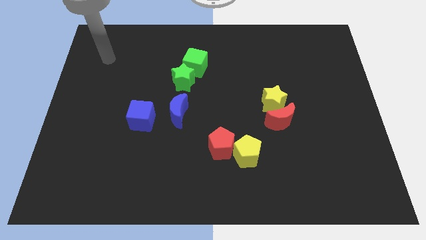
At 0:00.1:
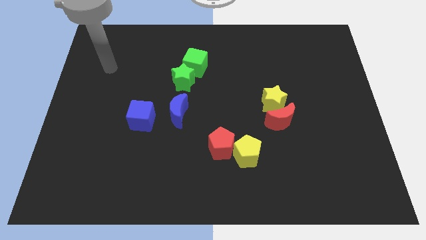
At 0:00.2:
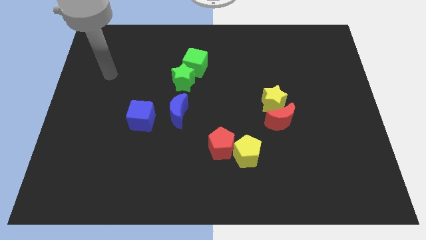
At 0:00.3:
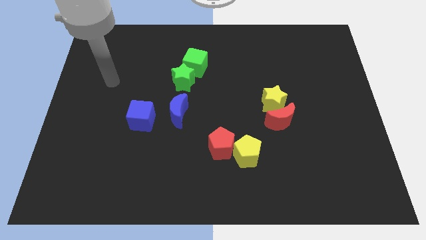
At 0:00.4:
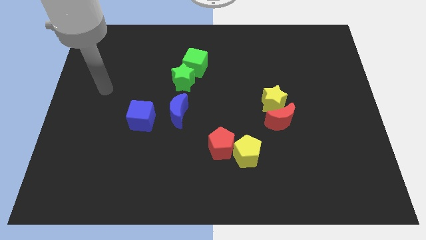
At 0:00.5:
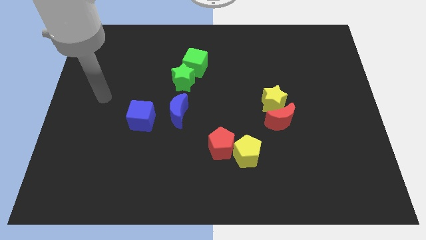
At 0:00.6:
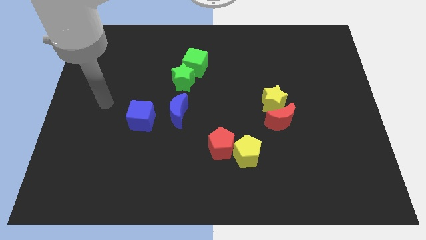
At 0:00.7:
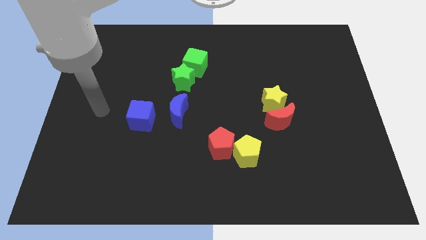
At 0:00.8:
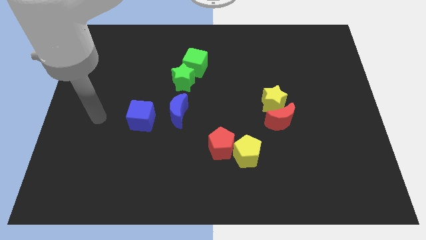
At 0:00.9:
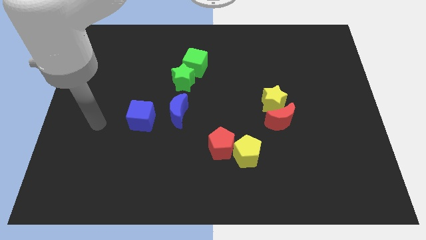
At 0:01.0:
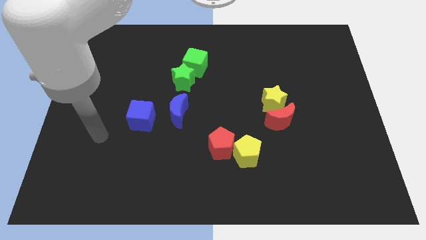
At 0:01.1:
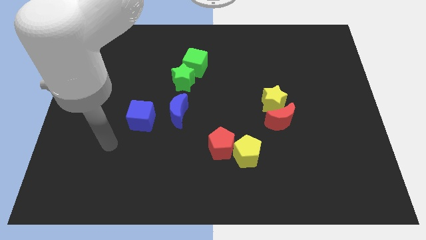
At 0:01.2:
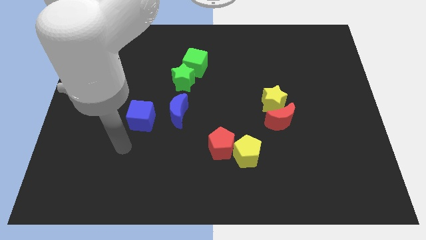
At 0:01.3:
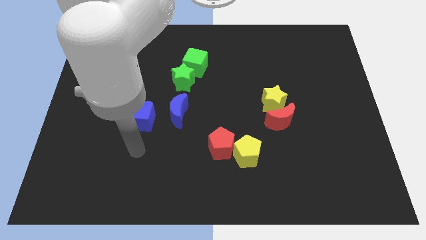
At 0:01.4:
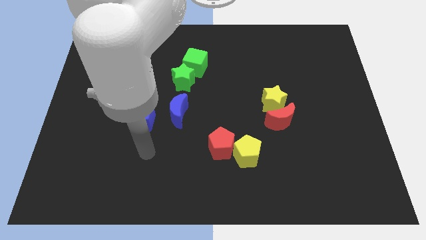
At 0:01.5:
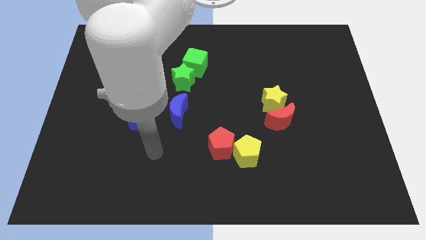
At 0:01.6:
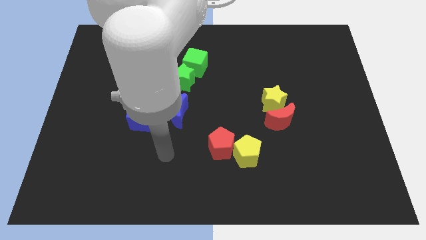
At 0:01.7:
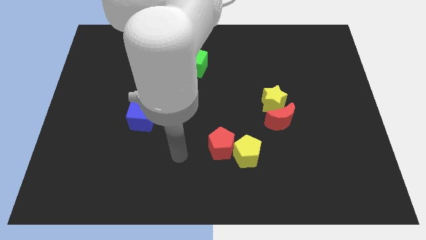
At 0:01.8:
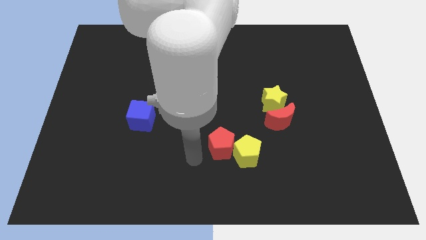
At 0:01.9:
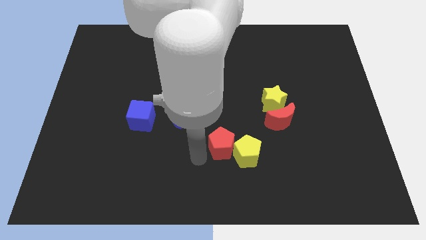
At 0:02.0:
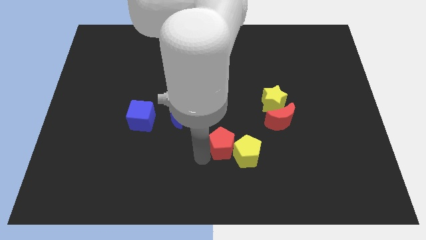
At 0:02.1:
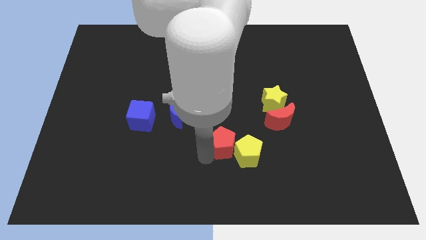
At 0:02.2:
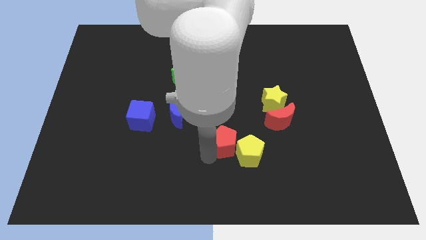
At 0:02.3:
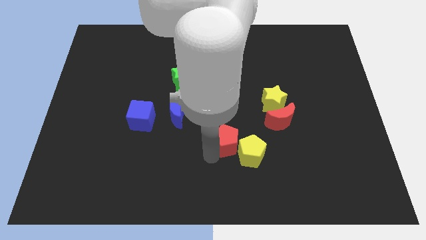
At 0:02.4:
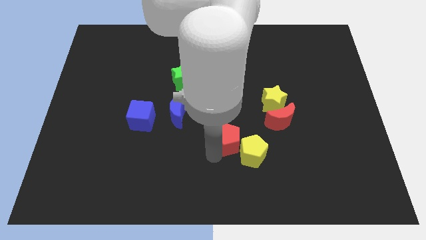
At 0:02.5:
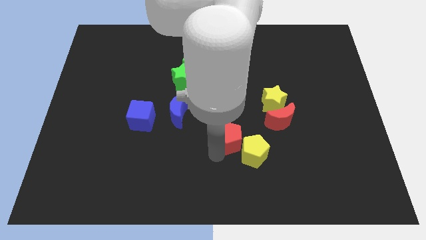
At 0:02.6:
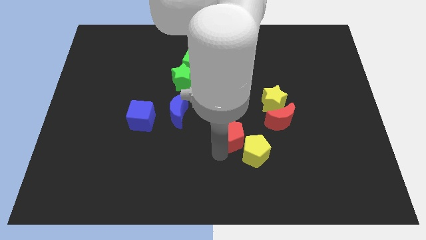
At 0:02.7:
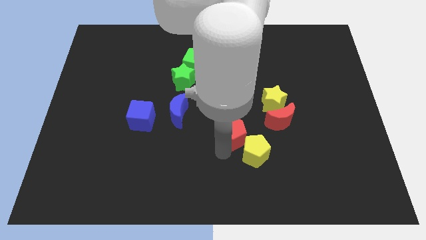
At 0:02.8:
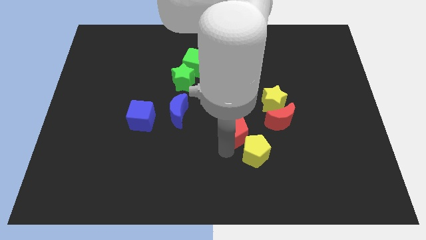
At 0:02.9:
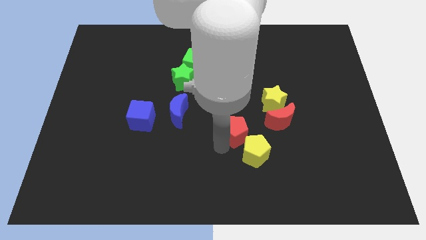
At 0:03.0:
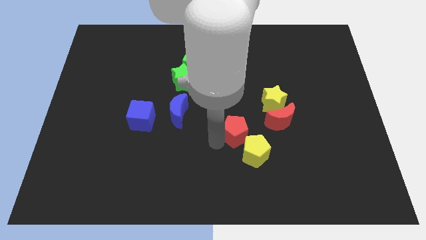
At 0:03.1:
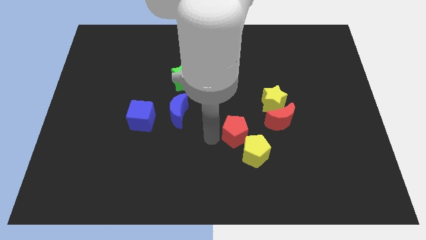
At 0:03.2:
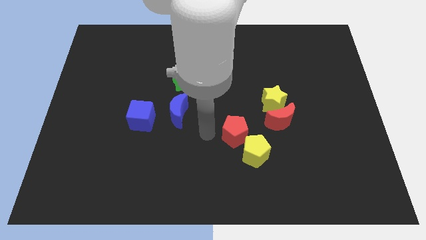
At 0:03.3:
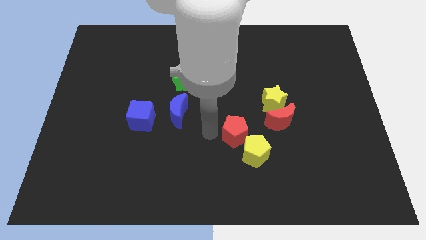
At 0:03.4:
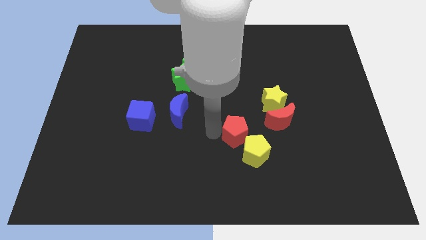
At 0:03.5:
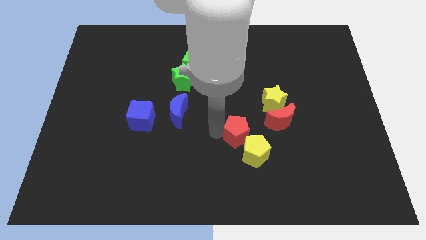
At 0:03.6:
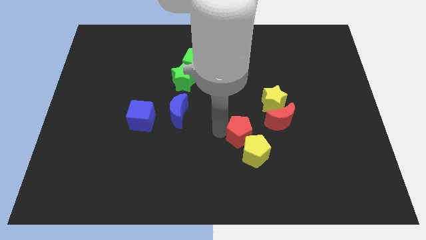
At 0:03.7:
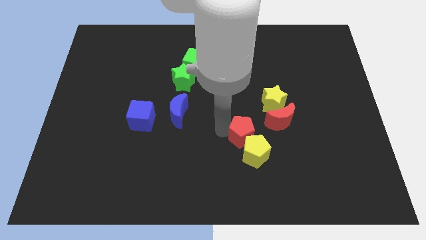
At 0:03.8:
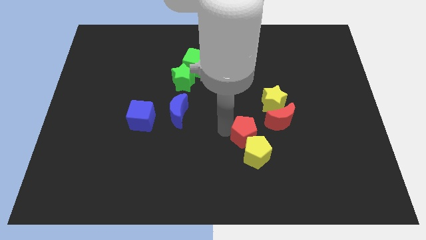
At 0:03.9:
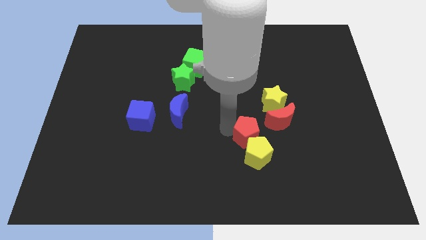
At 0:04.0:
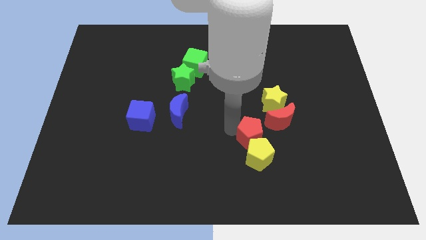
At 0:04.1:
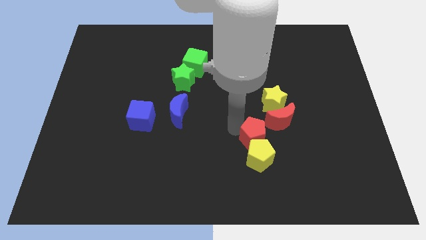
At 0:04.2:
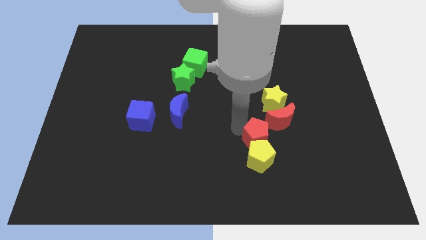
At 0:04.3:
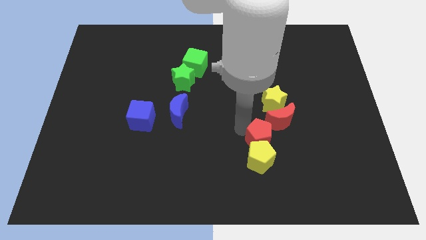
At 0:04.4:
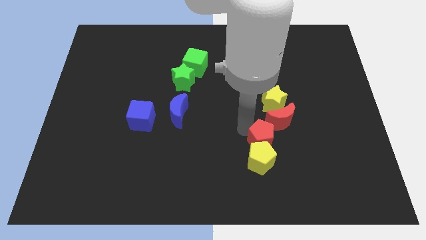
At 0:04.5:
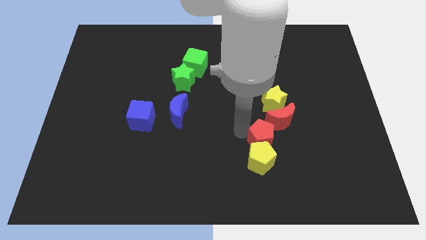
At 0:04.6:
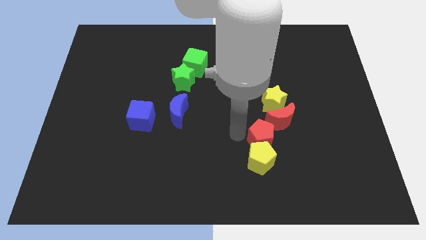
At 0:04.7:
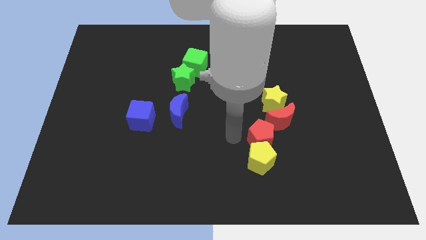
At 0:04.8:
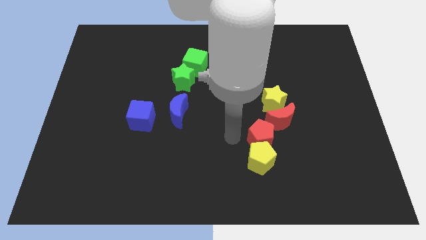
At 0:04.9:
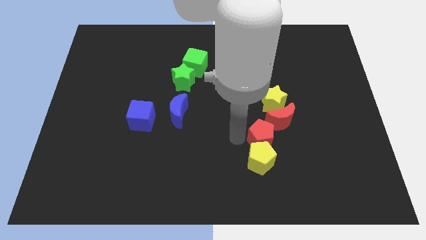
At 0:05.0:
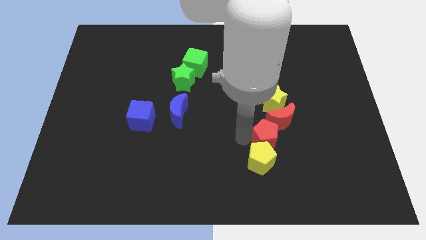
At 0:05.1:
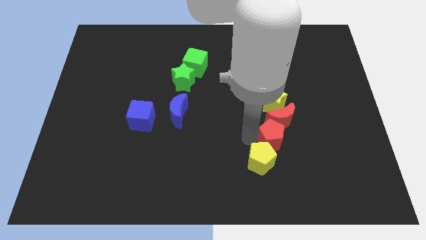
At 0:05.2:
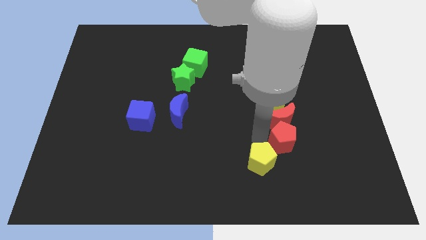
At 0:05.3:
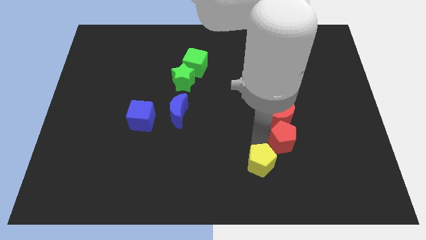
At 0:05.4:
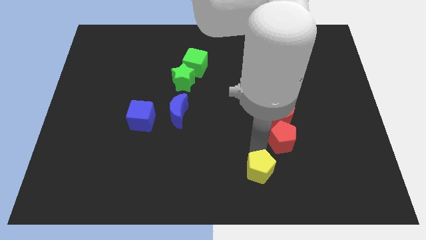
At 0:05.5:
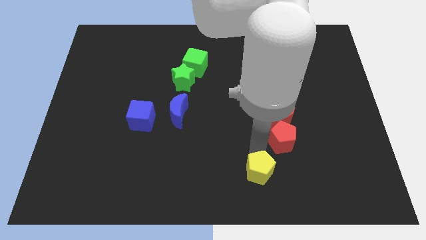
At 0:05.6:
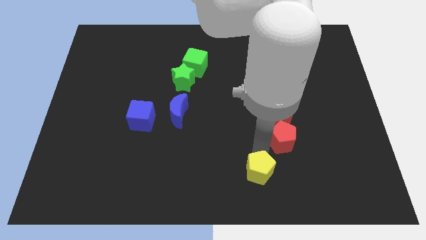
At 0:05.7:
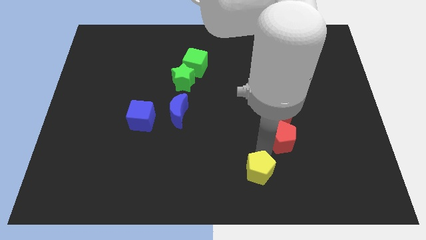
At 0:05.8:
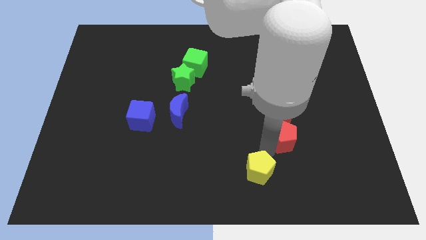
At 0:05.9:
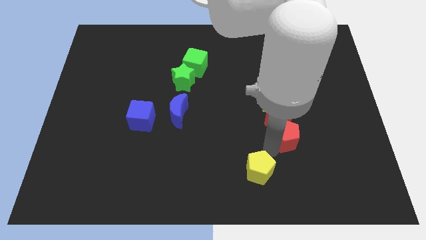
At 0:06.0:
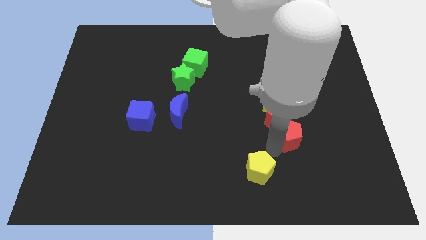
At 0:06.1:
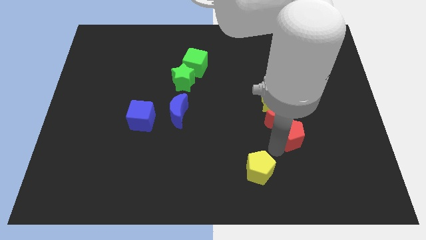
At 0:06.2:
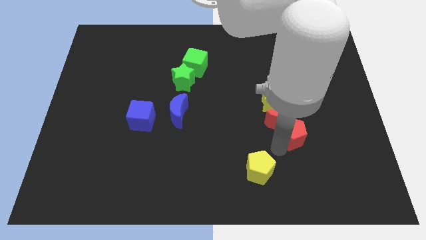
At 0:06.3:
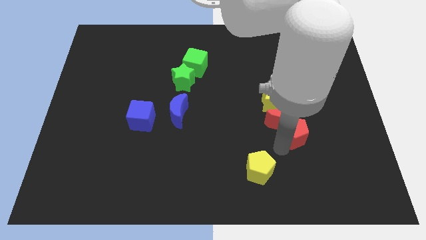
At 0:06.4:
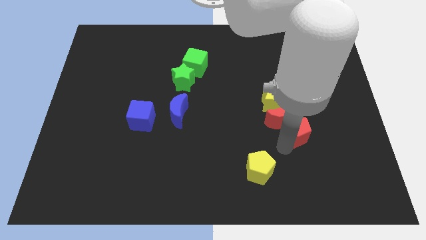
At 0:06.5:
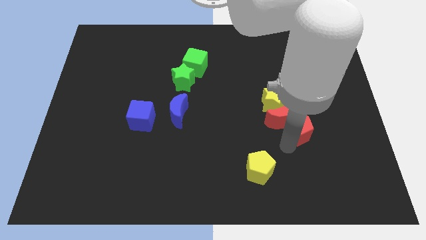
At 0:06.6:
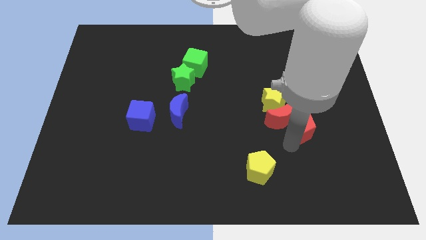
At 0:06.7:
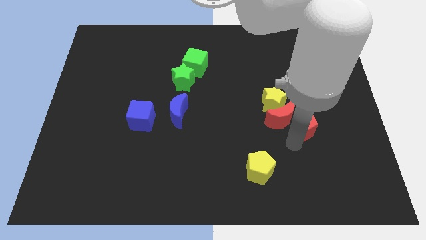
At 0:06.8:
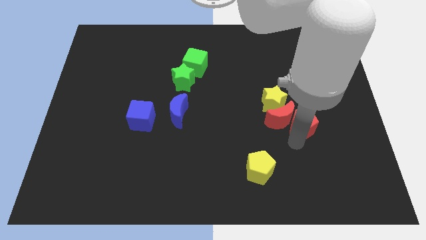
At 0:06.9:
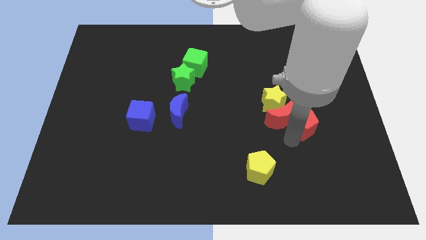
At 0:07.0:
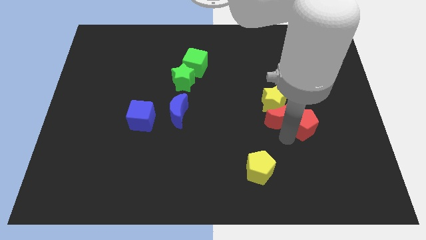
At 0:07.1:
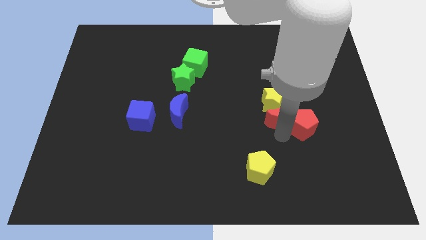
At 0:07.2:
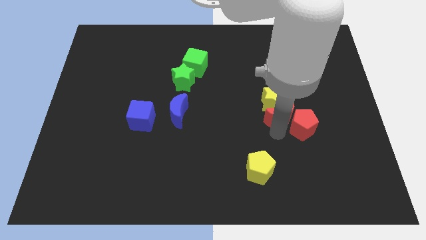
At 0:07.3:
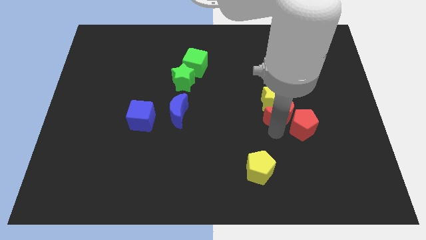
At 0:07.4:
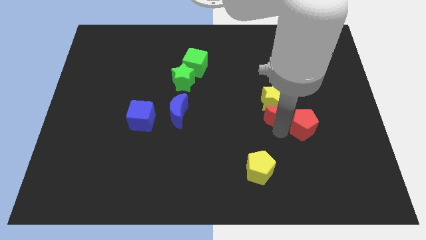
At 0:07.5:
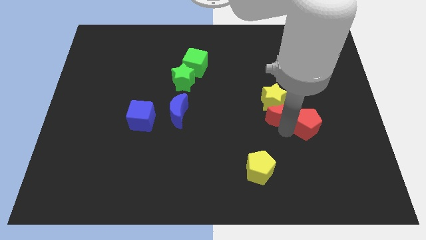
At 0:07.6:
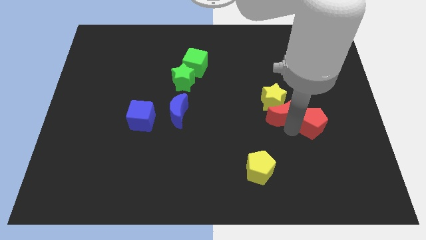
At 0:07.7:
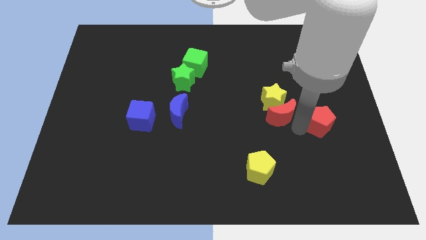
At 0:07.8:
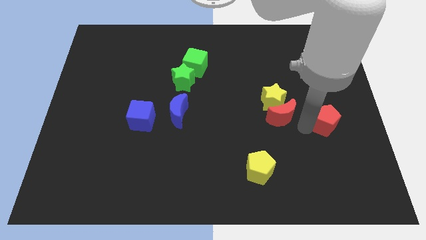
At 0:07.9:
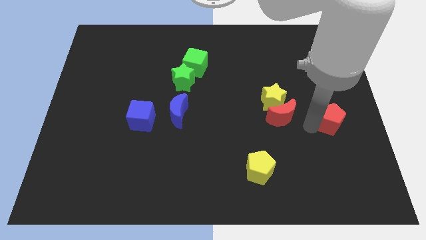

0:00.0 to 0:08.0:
slide the red pentagon to the right side of the board
